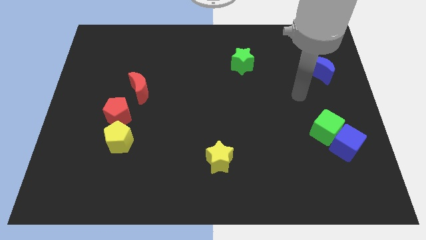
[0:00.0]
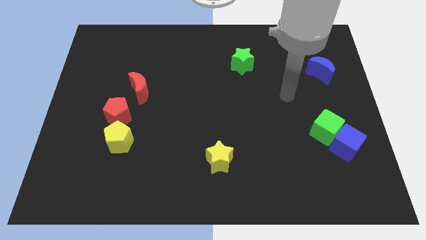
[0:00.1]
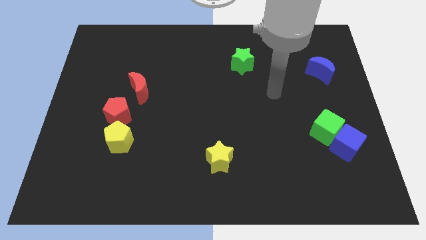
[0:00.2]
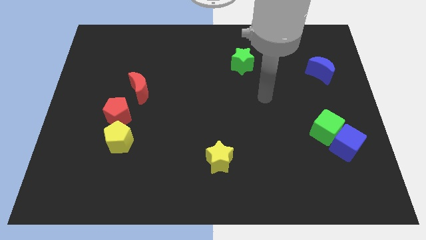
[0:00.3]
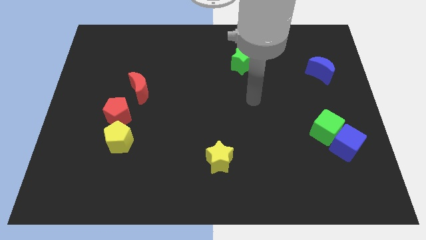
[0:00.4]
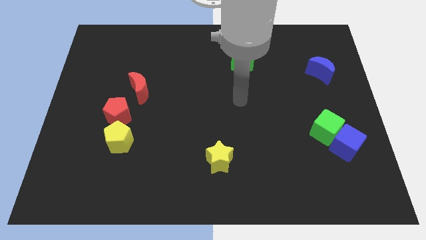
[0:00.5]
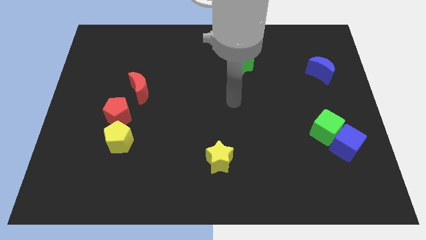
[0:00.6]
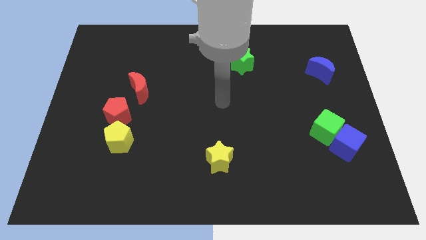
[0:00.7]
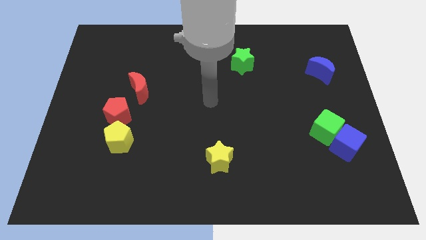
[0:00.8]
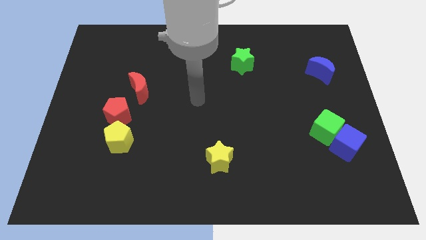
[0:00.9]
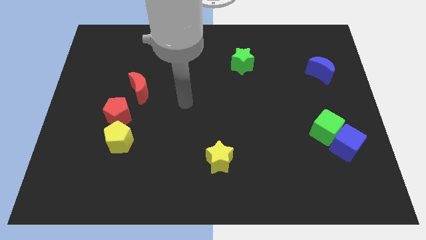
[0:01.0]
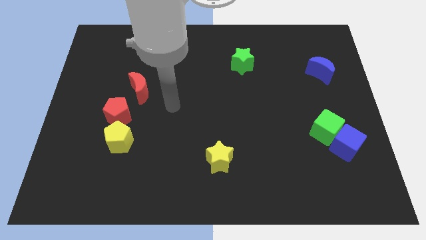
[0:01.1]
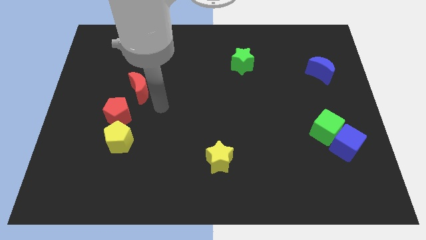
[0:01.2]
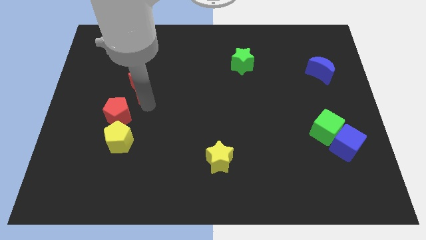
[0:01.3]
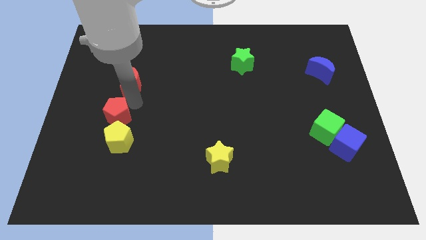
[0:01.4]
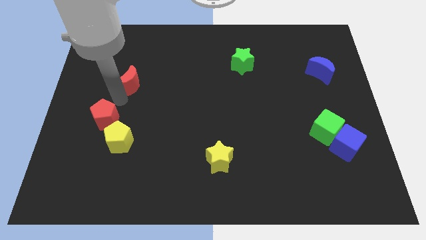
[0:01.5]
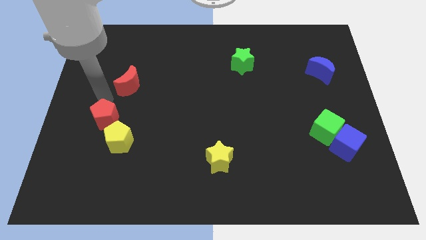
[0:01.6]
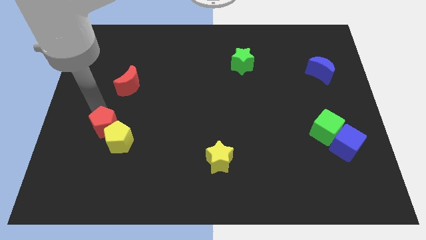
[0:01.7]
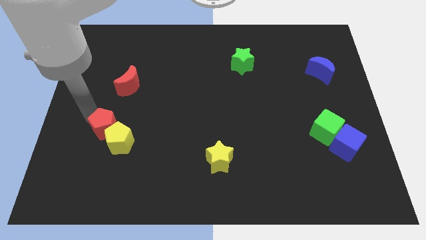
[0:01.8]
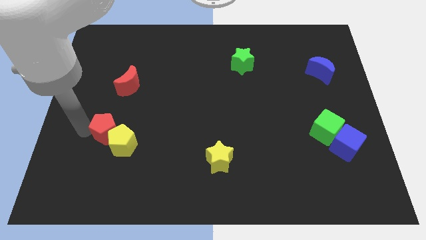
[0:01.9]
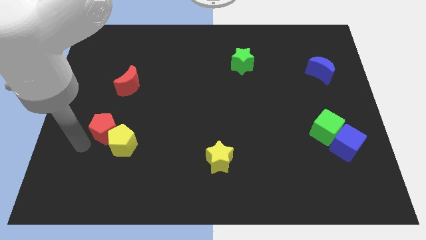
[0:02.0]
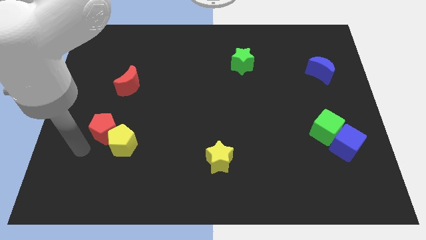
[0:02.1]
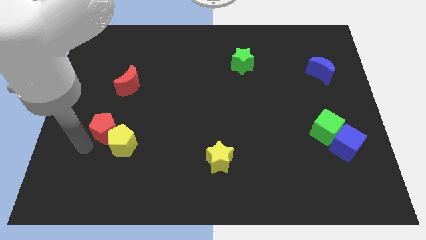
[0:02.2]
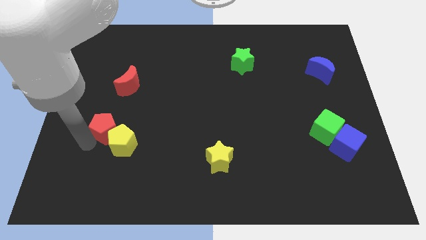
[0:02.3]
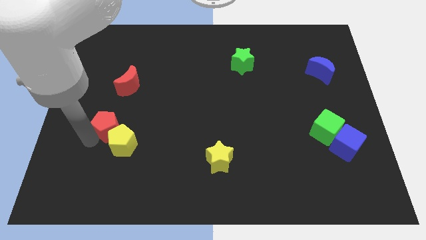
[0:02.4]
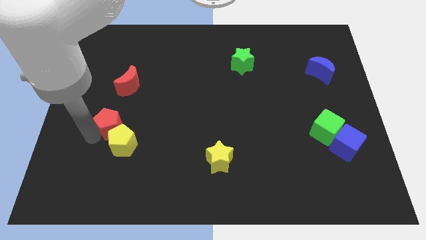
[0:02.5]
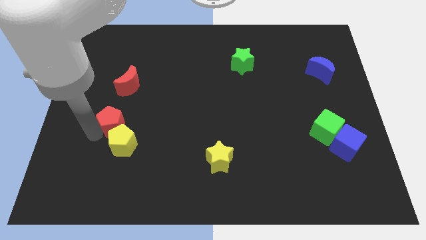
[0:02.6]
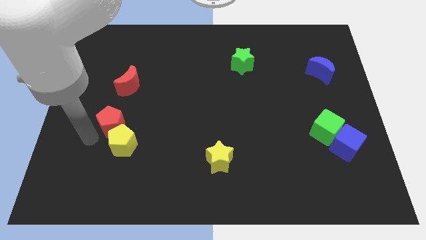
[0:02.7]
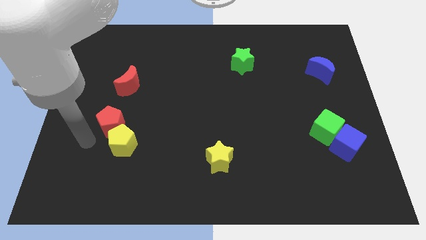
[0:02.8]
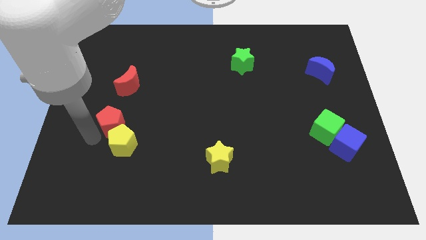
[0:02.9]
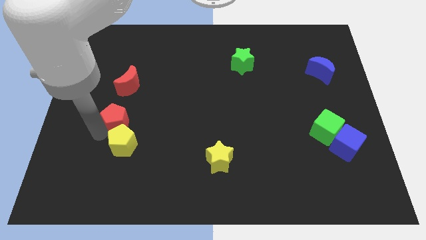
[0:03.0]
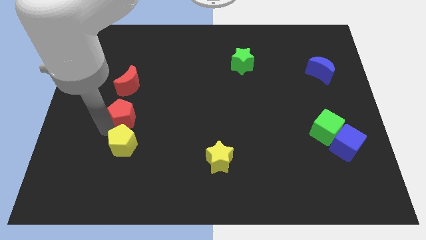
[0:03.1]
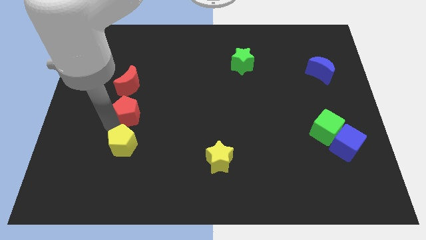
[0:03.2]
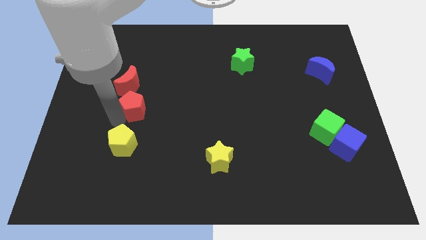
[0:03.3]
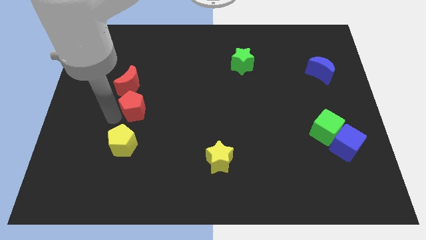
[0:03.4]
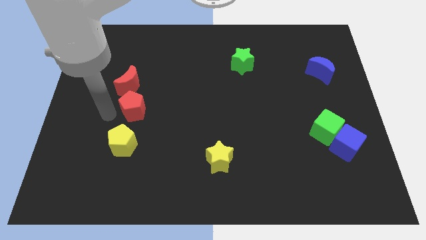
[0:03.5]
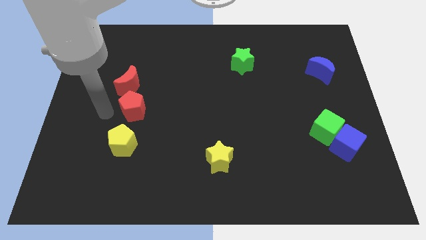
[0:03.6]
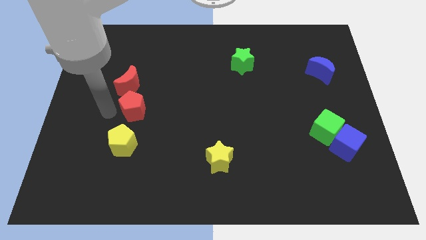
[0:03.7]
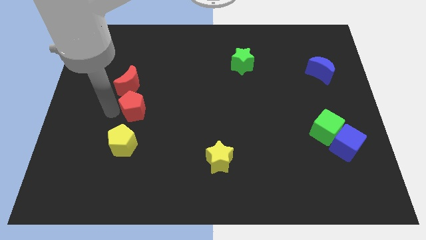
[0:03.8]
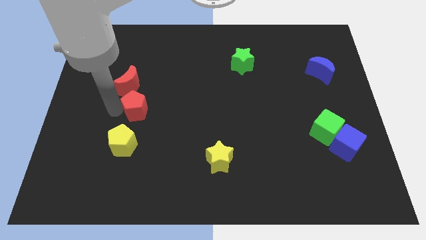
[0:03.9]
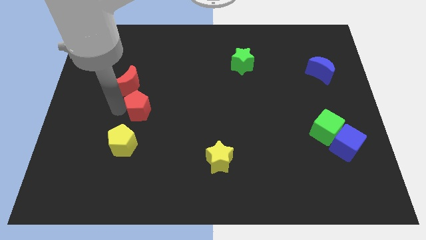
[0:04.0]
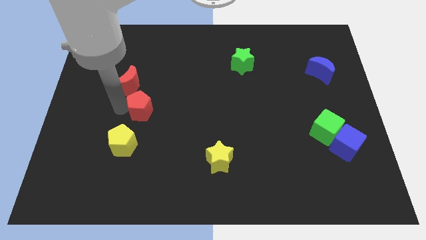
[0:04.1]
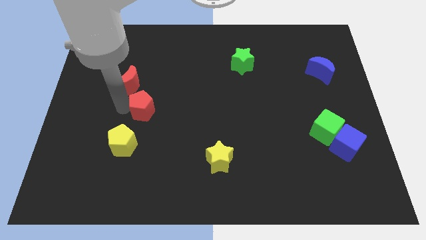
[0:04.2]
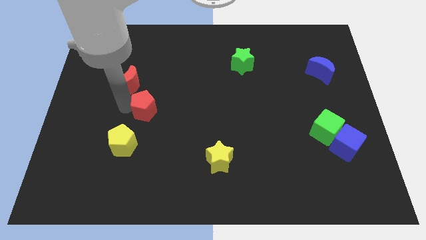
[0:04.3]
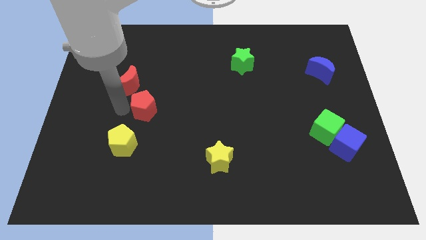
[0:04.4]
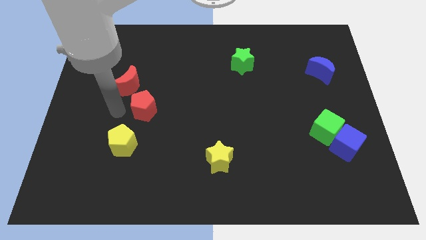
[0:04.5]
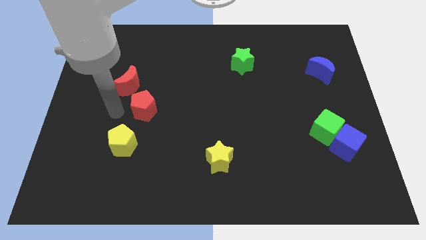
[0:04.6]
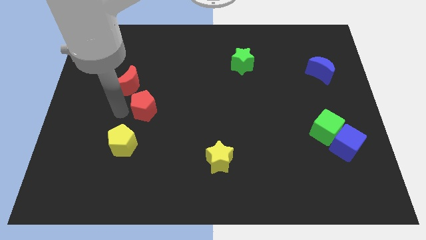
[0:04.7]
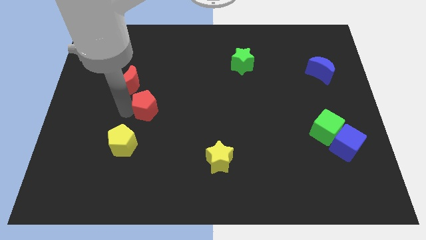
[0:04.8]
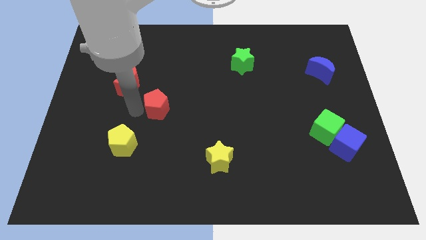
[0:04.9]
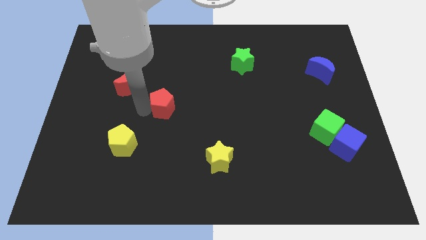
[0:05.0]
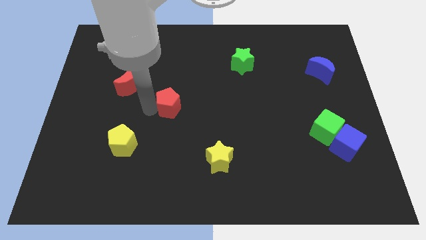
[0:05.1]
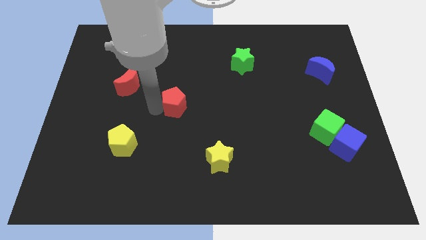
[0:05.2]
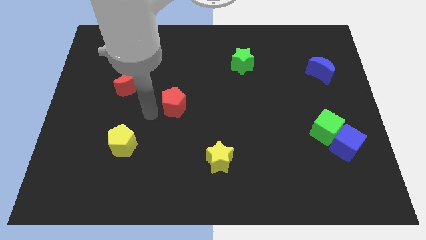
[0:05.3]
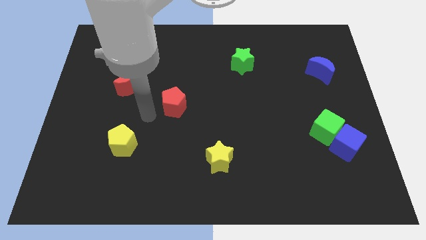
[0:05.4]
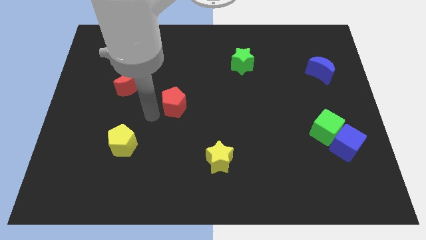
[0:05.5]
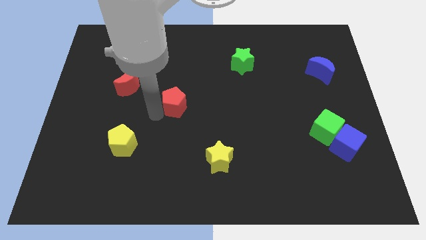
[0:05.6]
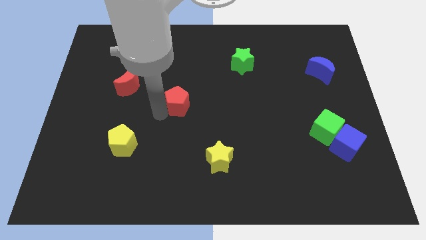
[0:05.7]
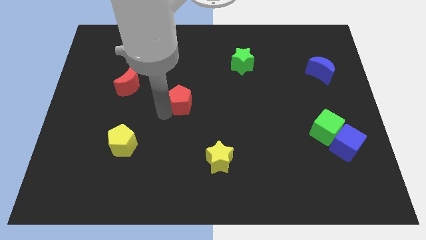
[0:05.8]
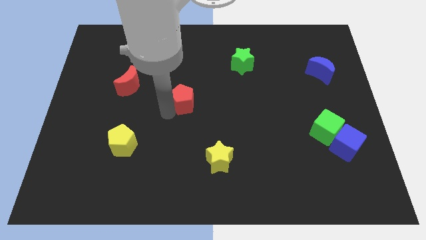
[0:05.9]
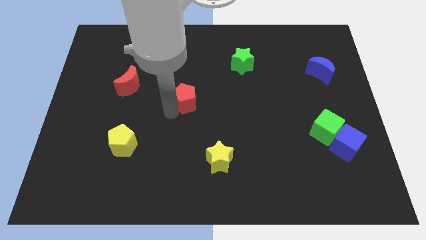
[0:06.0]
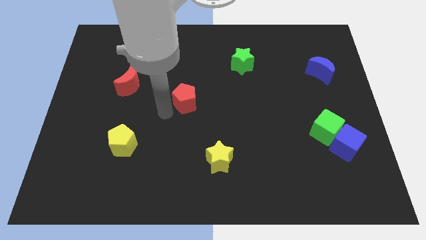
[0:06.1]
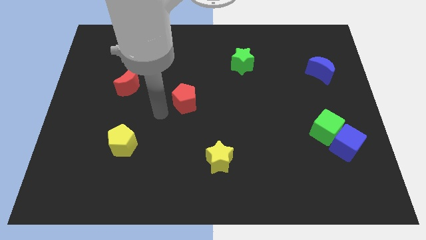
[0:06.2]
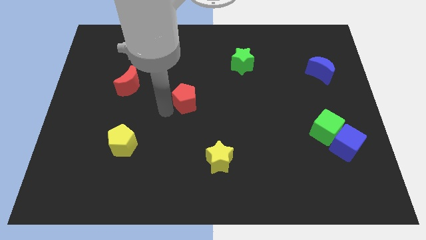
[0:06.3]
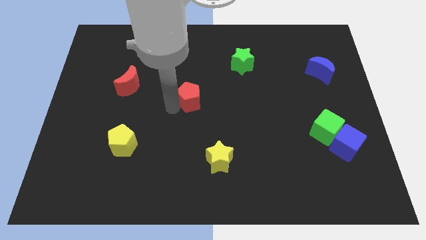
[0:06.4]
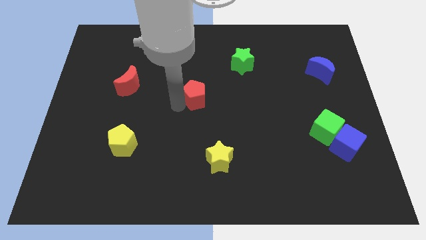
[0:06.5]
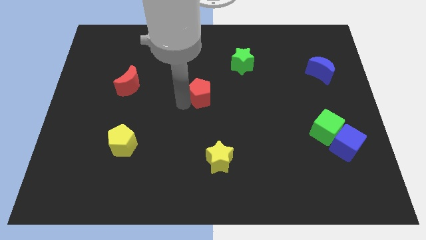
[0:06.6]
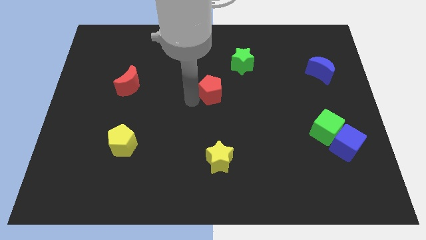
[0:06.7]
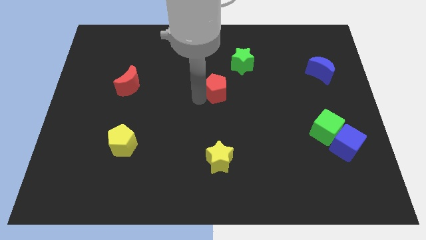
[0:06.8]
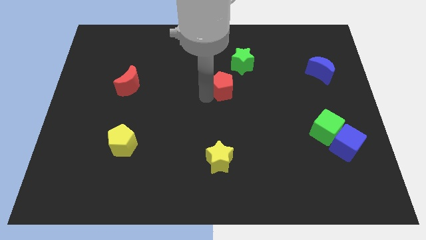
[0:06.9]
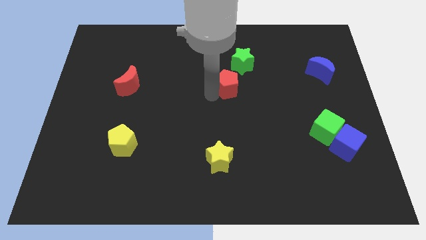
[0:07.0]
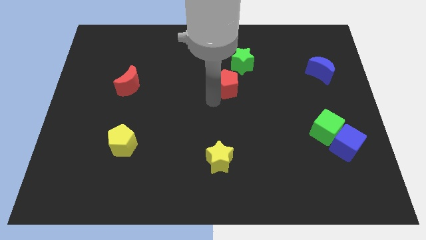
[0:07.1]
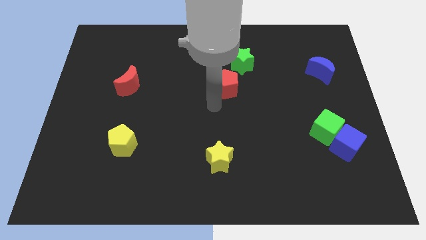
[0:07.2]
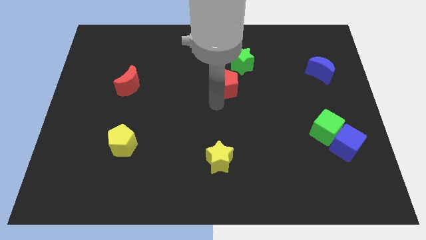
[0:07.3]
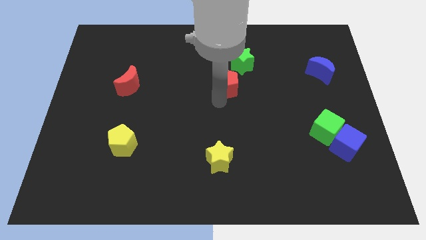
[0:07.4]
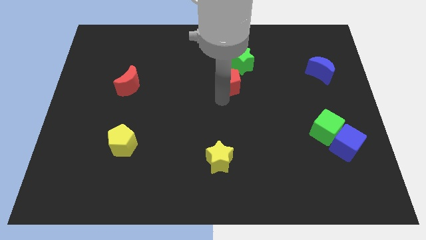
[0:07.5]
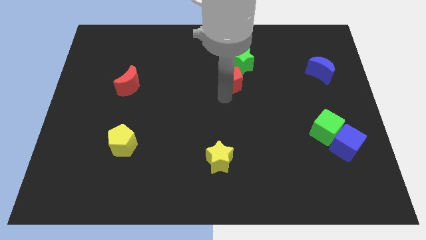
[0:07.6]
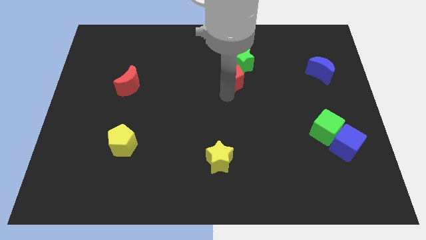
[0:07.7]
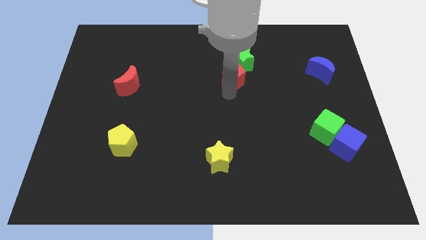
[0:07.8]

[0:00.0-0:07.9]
push the red pentagon next to the green star
